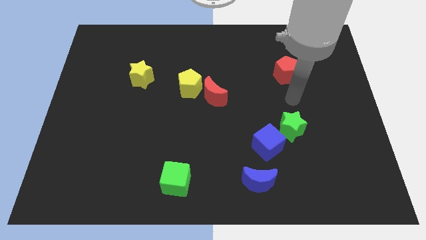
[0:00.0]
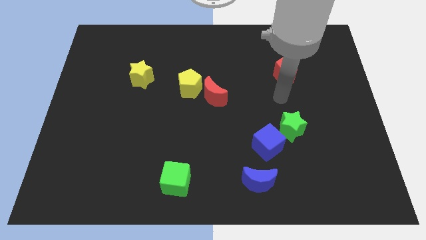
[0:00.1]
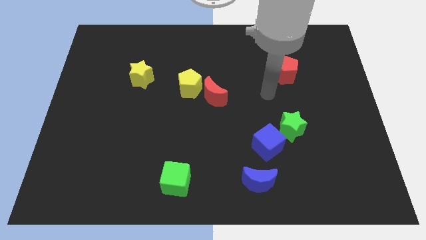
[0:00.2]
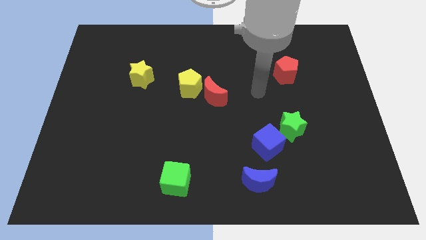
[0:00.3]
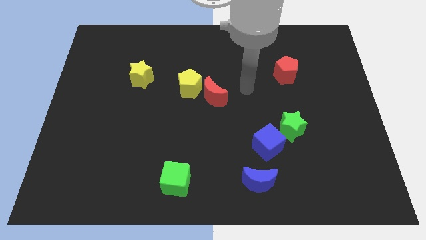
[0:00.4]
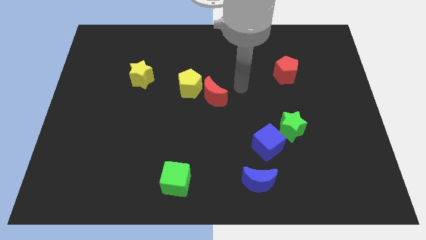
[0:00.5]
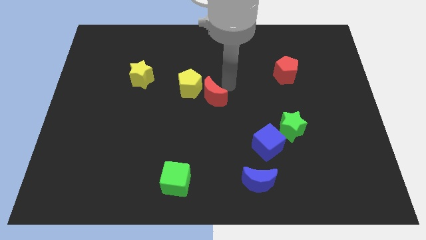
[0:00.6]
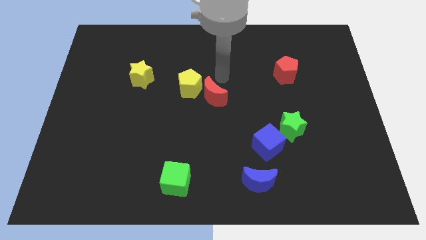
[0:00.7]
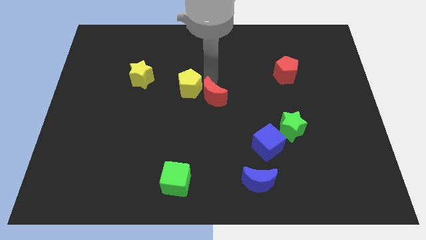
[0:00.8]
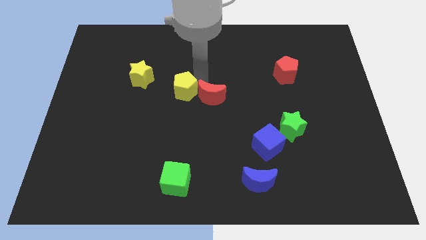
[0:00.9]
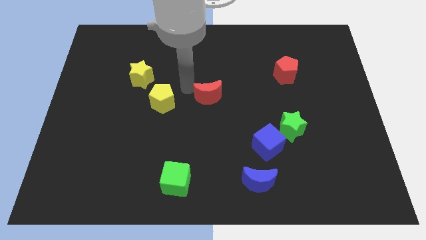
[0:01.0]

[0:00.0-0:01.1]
pull the red moon apart from the yellow pentagon

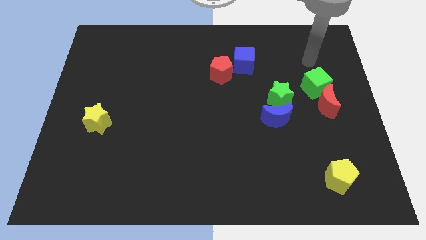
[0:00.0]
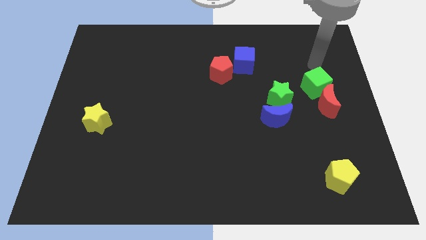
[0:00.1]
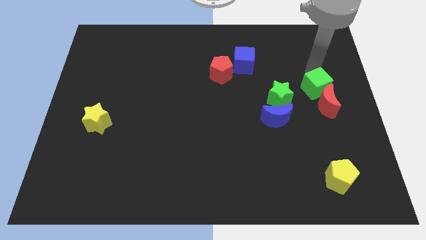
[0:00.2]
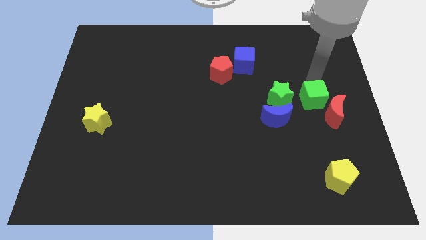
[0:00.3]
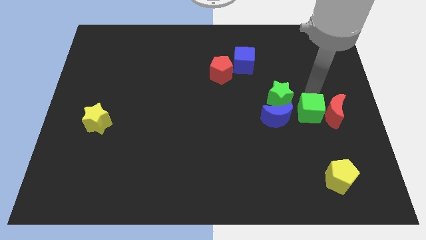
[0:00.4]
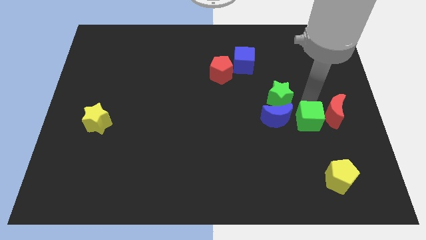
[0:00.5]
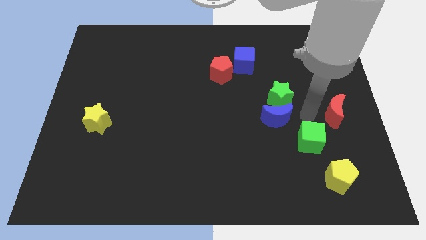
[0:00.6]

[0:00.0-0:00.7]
separate the red moon from the green cube

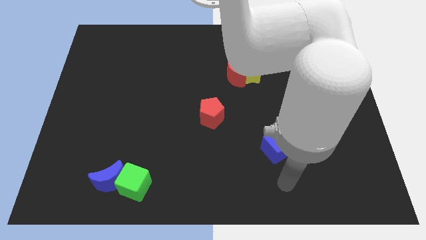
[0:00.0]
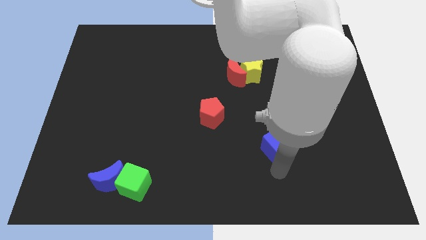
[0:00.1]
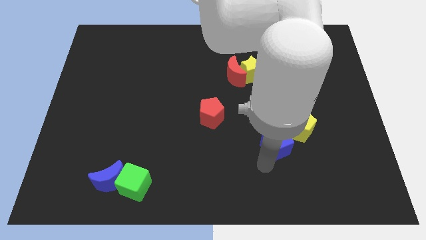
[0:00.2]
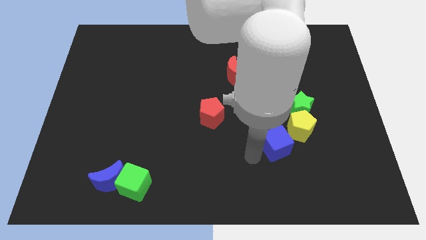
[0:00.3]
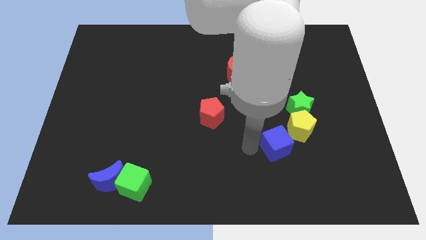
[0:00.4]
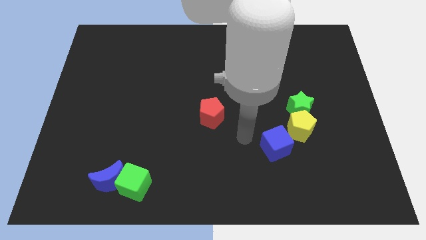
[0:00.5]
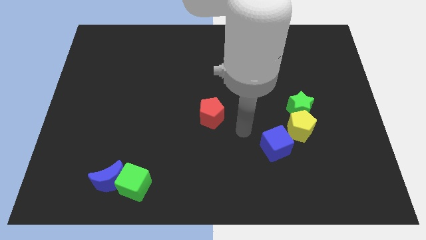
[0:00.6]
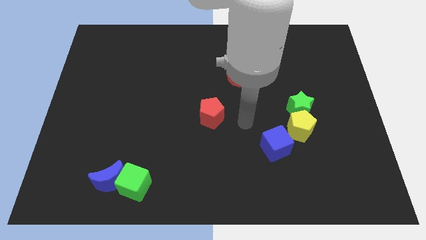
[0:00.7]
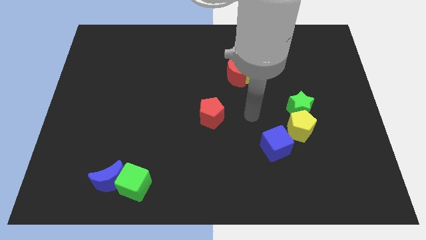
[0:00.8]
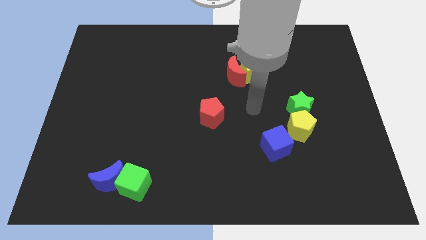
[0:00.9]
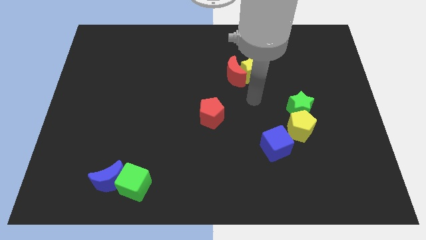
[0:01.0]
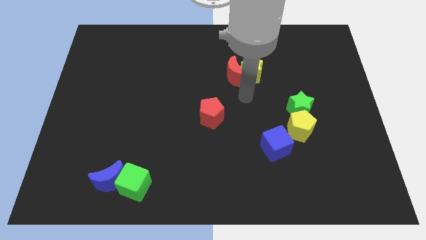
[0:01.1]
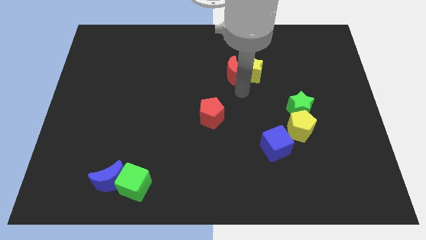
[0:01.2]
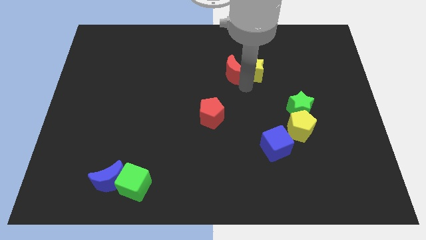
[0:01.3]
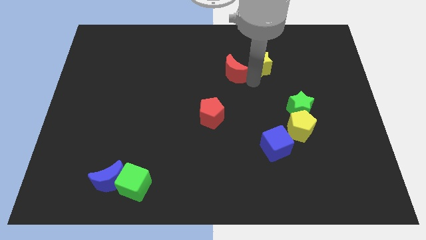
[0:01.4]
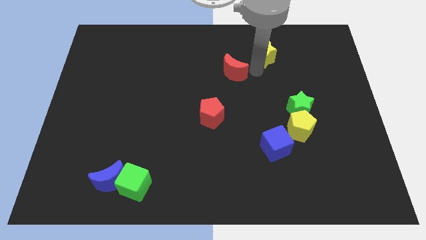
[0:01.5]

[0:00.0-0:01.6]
separate the red moon from the yellow star

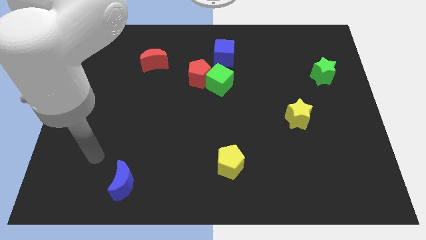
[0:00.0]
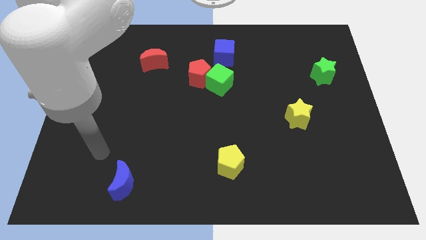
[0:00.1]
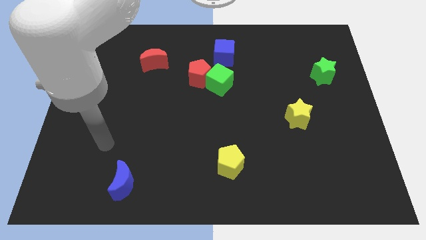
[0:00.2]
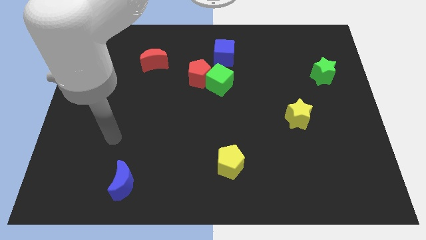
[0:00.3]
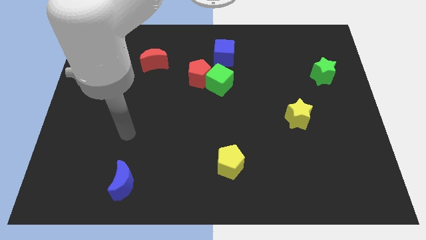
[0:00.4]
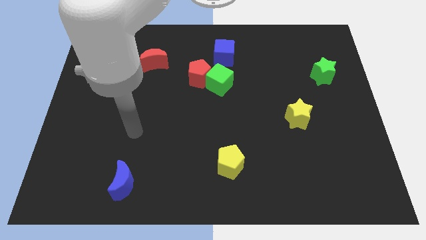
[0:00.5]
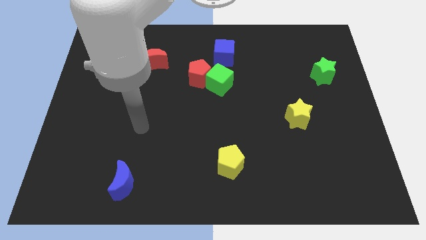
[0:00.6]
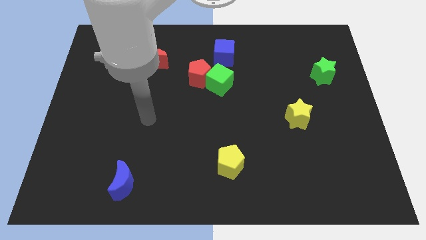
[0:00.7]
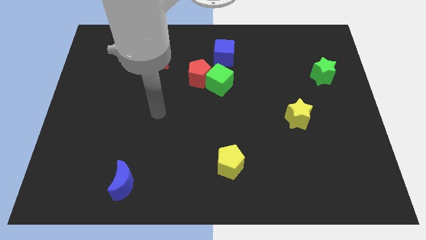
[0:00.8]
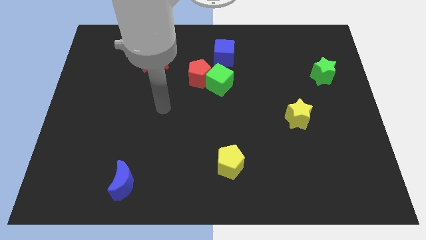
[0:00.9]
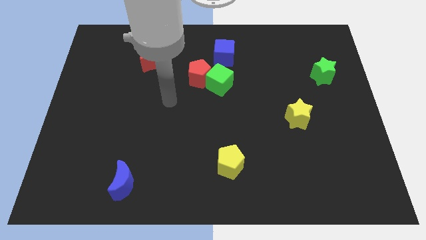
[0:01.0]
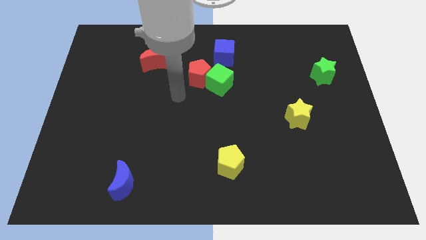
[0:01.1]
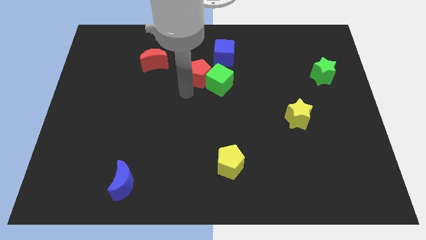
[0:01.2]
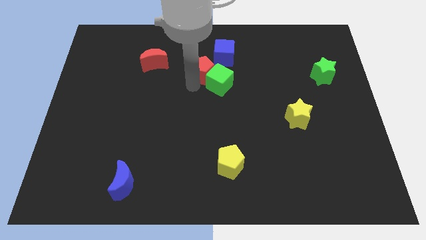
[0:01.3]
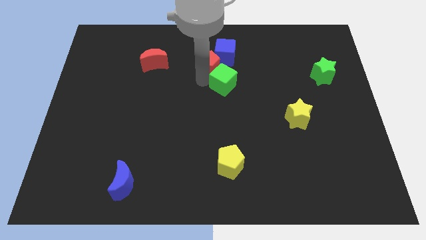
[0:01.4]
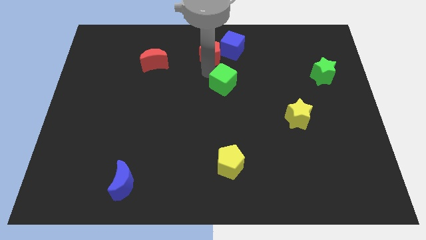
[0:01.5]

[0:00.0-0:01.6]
pull the green cube apart from the red pentagon and blue cube

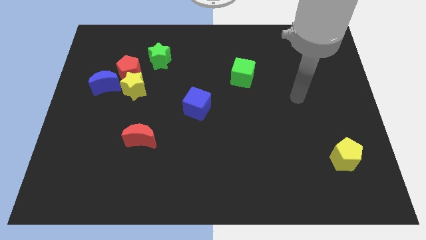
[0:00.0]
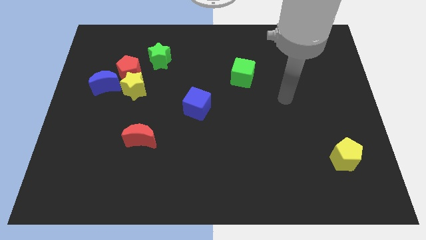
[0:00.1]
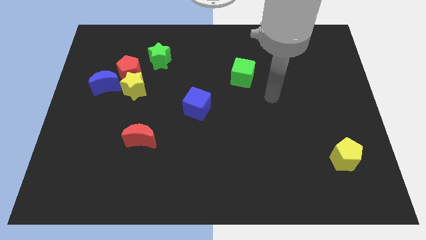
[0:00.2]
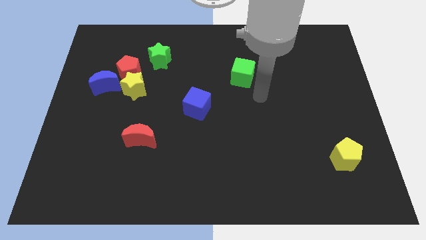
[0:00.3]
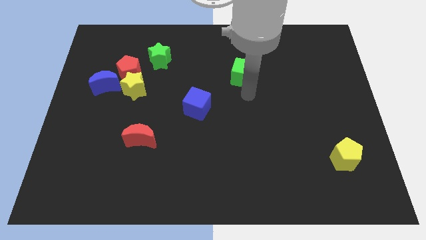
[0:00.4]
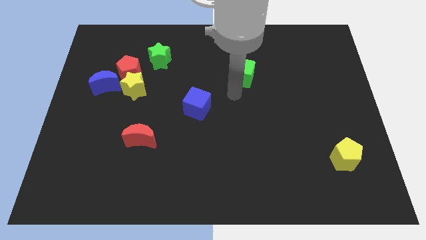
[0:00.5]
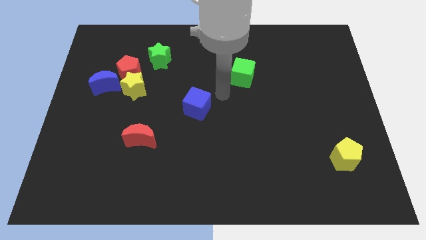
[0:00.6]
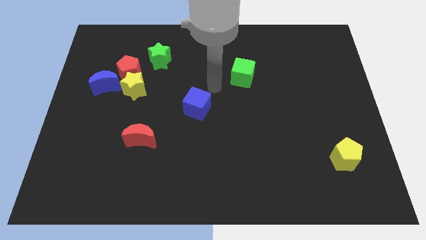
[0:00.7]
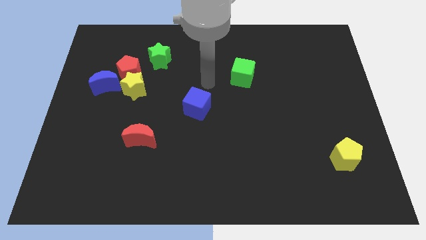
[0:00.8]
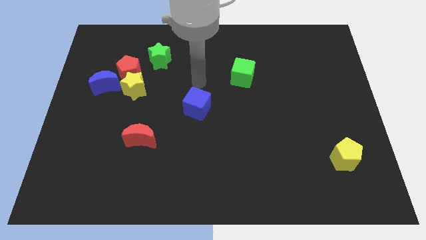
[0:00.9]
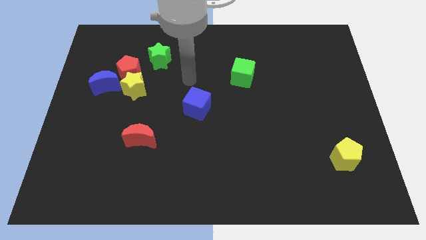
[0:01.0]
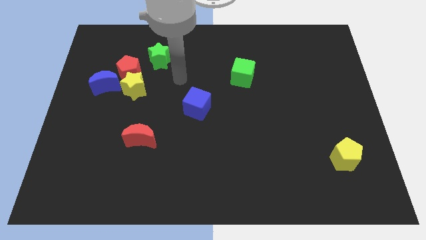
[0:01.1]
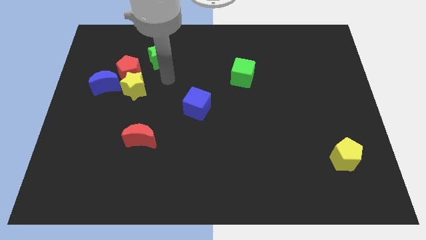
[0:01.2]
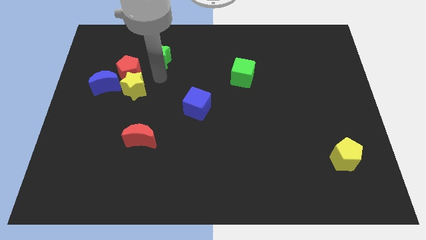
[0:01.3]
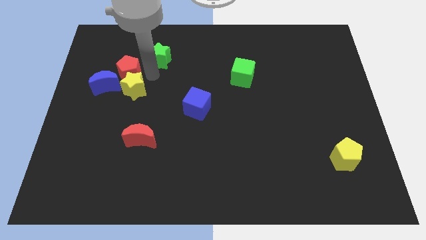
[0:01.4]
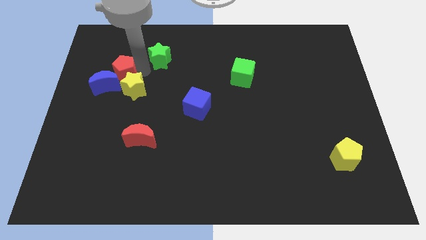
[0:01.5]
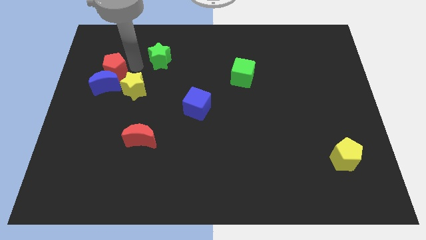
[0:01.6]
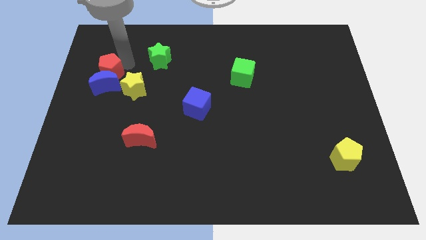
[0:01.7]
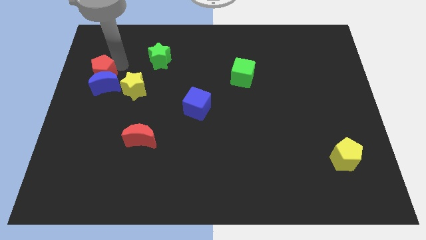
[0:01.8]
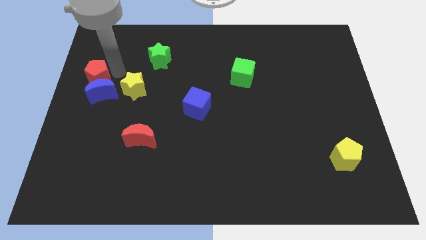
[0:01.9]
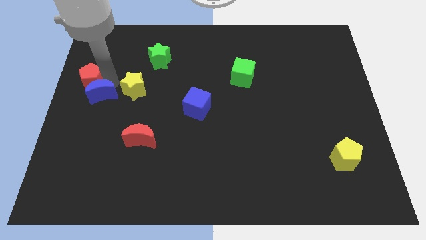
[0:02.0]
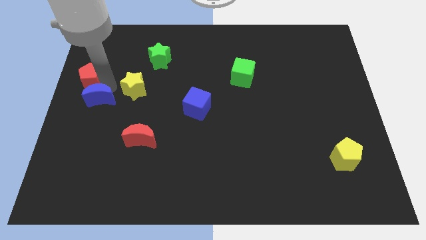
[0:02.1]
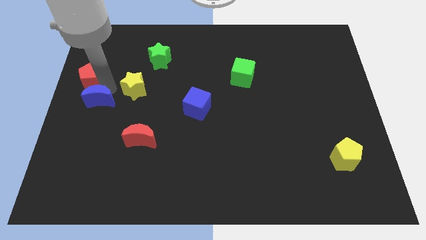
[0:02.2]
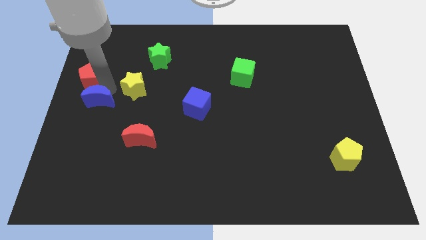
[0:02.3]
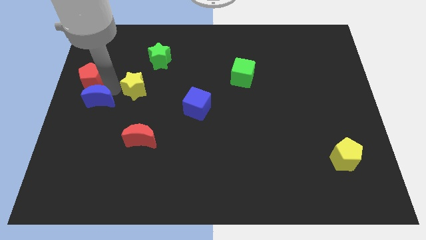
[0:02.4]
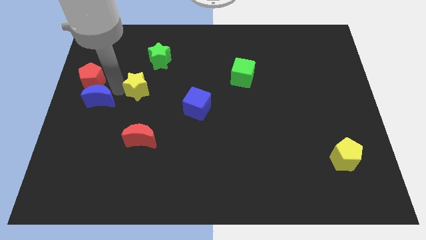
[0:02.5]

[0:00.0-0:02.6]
move the yellow star away from the red pentagon and blue moon

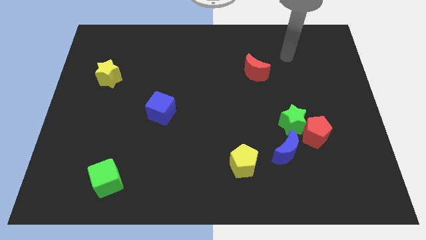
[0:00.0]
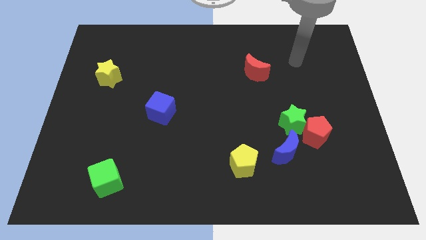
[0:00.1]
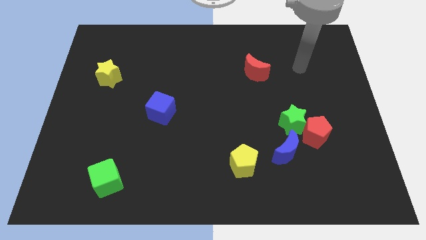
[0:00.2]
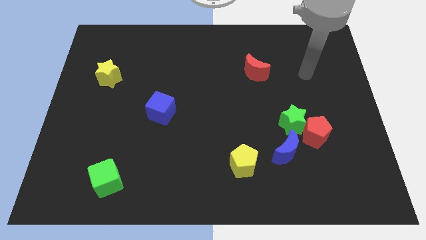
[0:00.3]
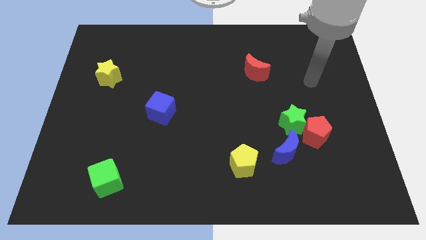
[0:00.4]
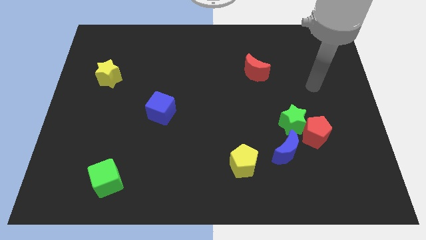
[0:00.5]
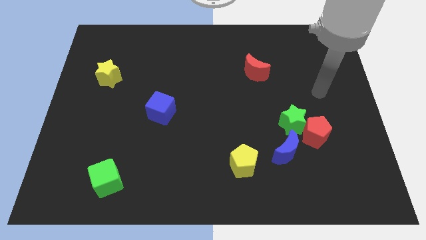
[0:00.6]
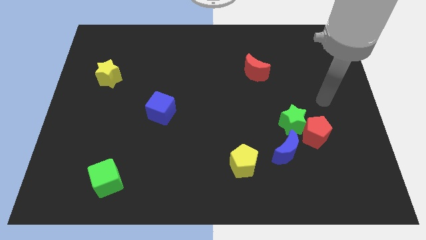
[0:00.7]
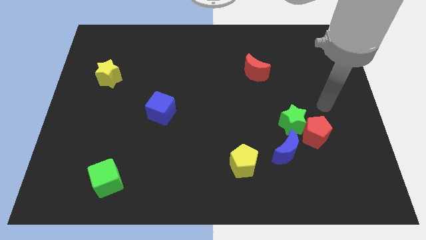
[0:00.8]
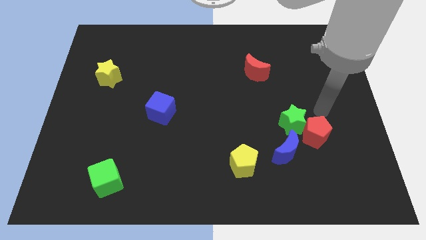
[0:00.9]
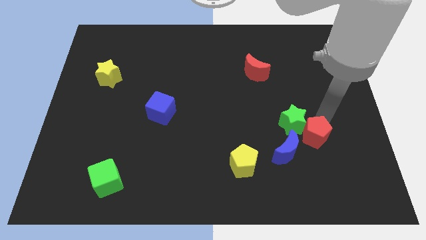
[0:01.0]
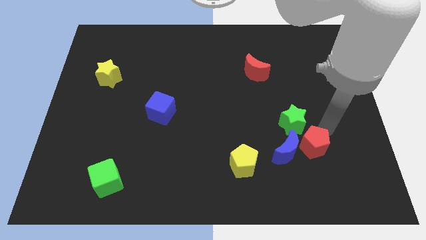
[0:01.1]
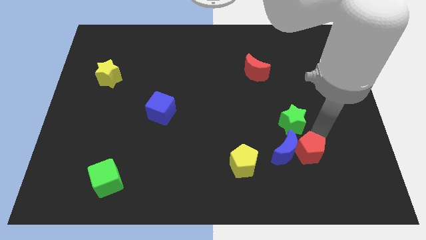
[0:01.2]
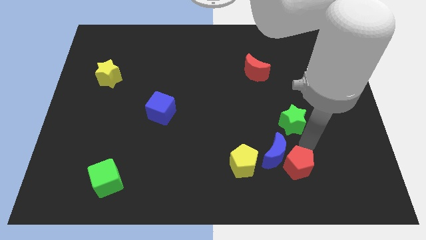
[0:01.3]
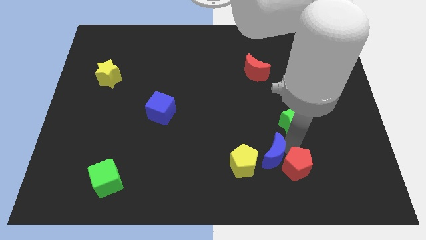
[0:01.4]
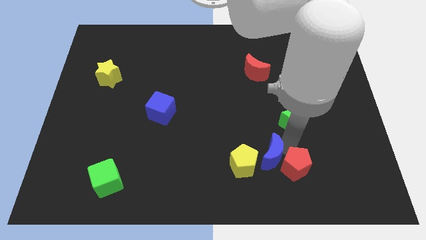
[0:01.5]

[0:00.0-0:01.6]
separate the green star from the red pentagon and blue moon

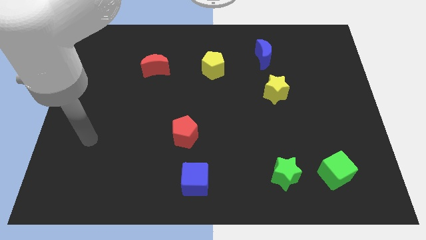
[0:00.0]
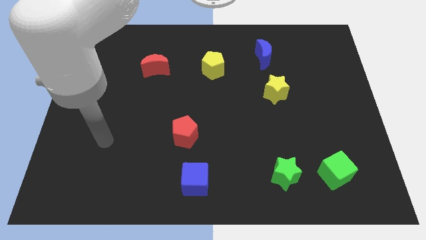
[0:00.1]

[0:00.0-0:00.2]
pull the green cube apart from the green star
